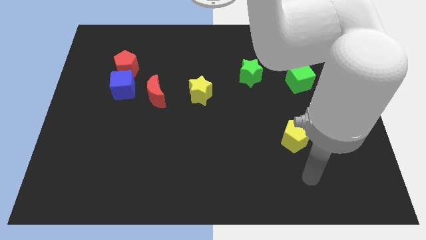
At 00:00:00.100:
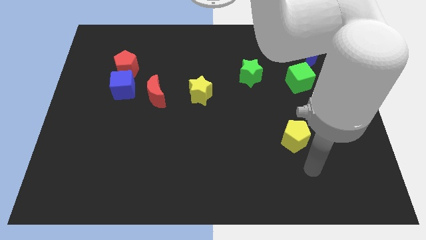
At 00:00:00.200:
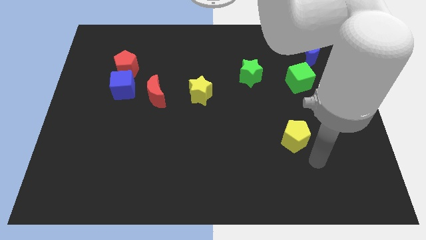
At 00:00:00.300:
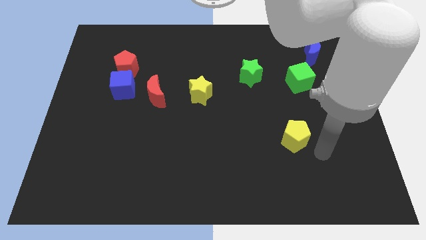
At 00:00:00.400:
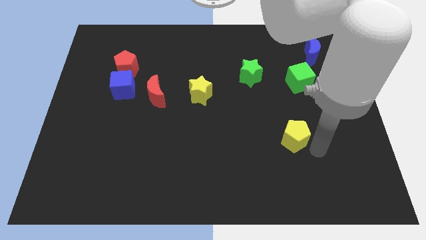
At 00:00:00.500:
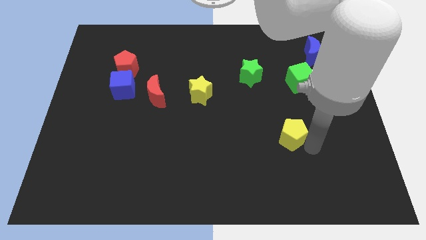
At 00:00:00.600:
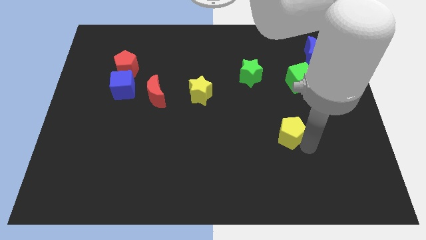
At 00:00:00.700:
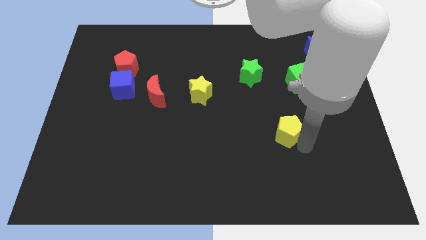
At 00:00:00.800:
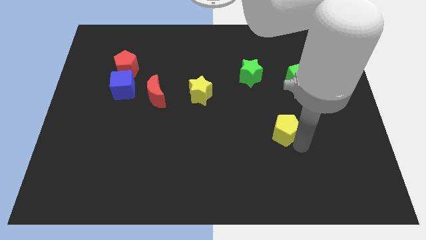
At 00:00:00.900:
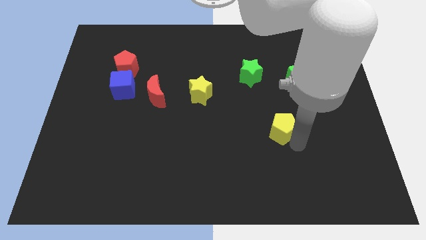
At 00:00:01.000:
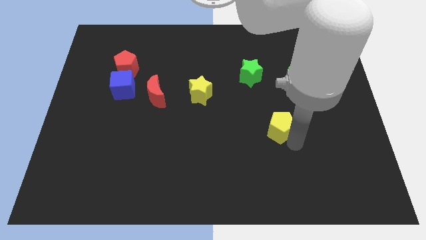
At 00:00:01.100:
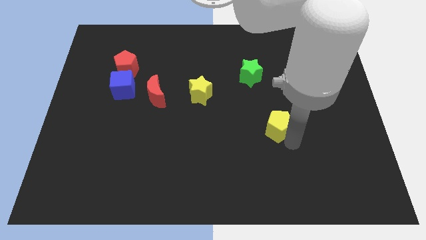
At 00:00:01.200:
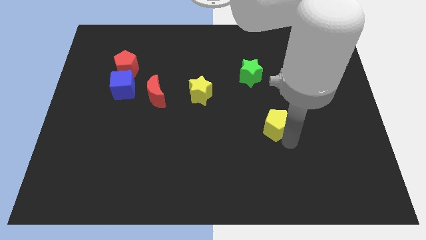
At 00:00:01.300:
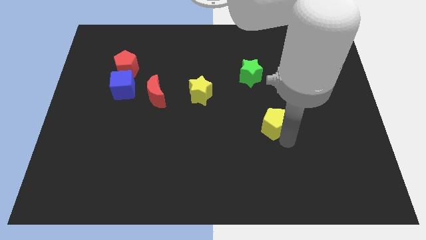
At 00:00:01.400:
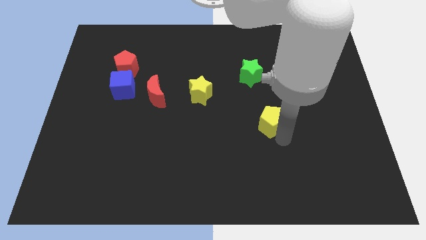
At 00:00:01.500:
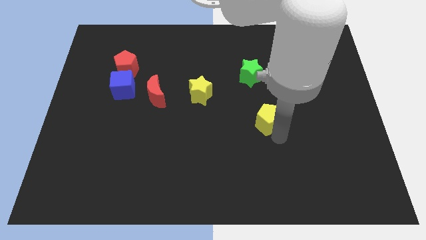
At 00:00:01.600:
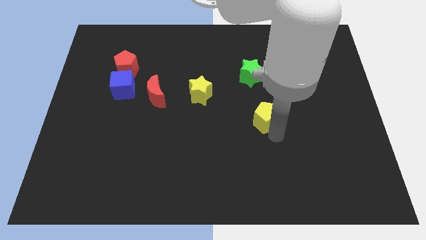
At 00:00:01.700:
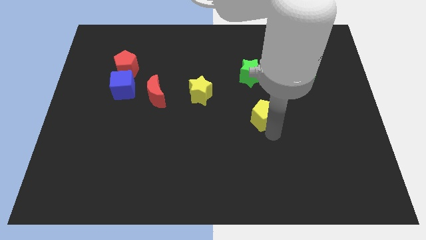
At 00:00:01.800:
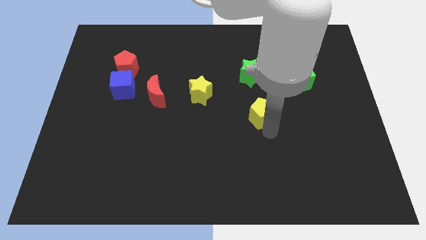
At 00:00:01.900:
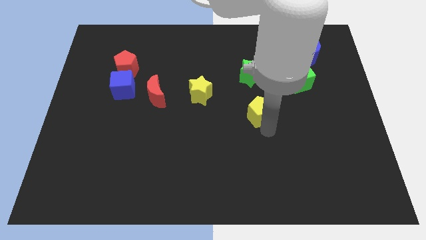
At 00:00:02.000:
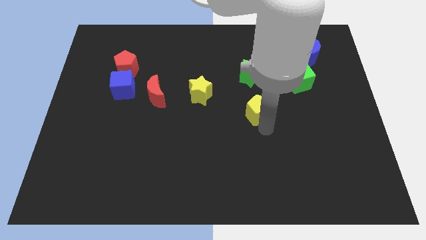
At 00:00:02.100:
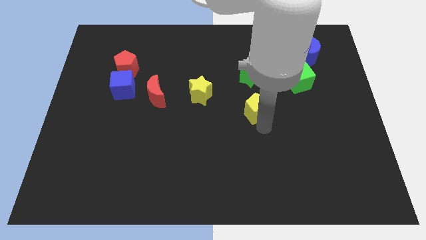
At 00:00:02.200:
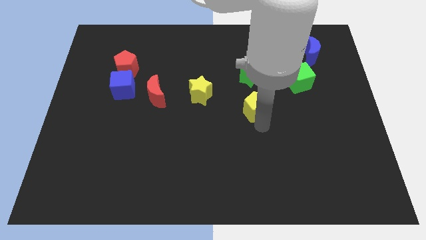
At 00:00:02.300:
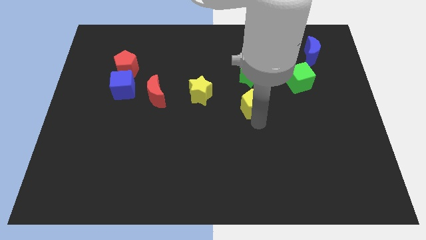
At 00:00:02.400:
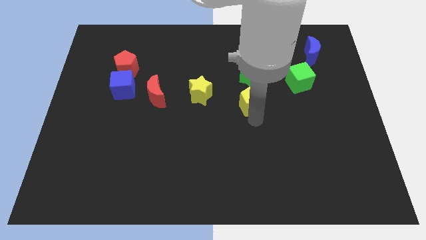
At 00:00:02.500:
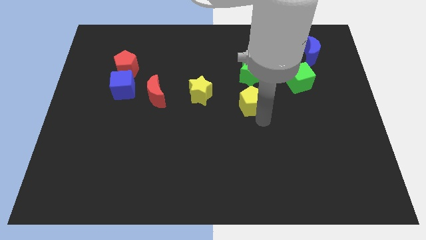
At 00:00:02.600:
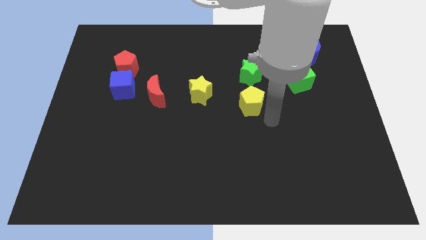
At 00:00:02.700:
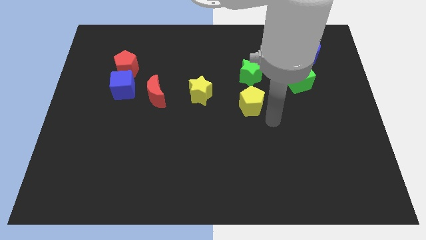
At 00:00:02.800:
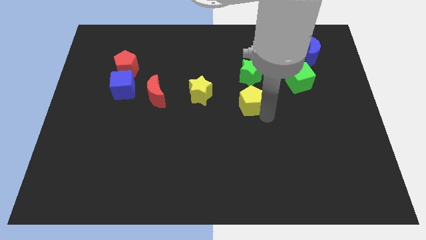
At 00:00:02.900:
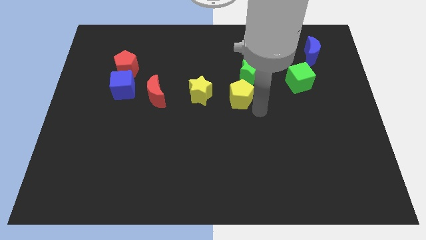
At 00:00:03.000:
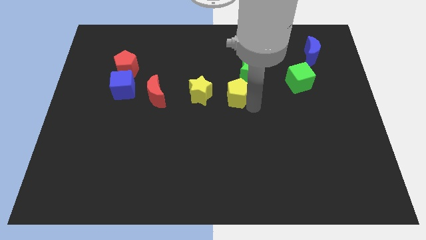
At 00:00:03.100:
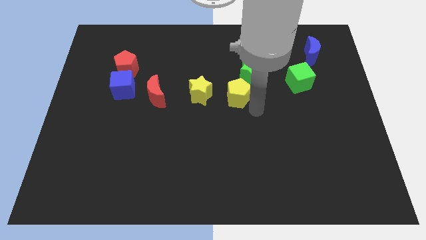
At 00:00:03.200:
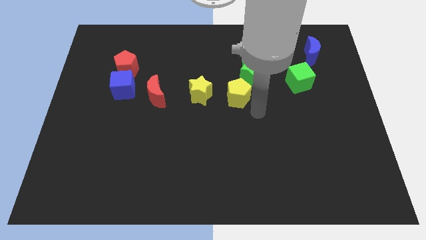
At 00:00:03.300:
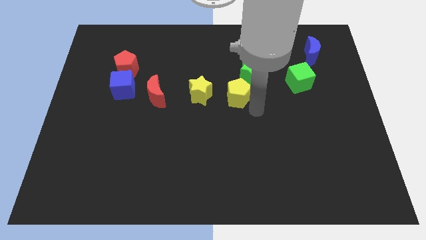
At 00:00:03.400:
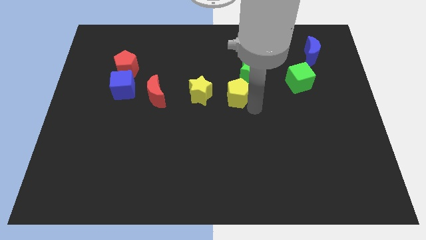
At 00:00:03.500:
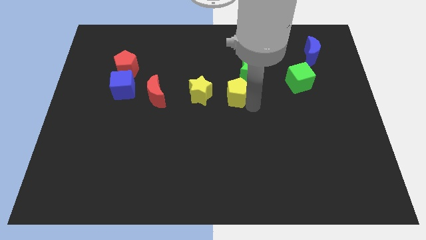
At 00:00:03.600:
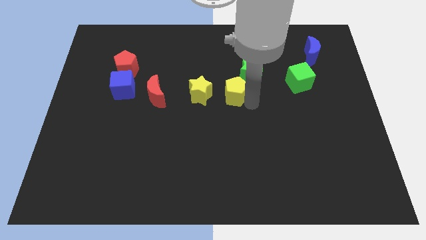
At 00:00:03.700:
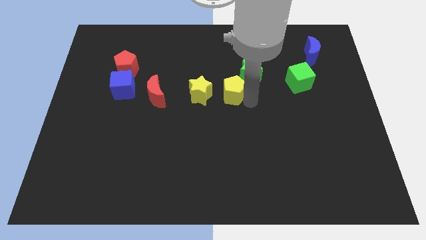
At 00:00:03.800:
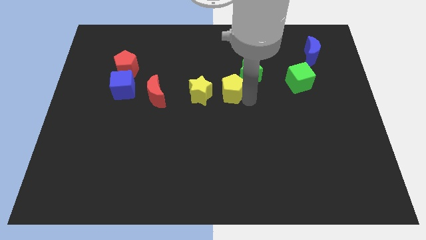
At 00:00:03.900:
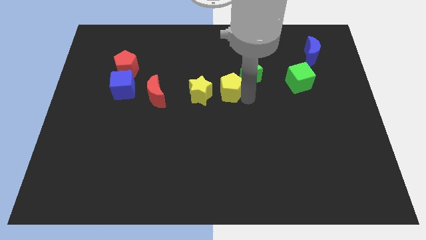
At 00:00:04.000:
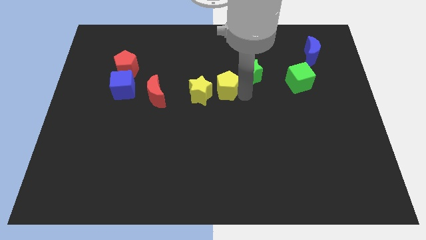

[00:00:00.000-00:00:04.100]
slide the yellow pentagon upwards and to the left diagonally

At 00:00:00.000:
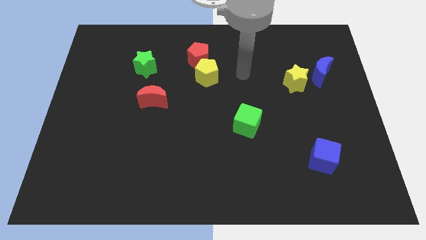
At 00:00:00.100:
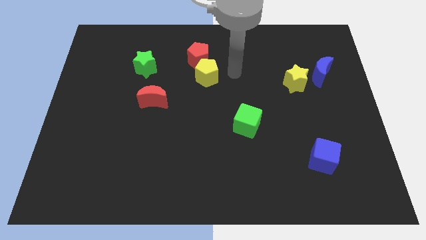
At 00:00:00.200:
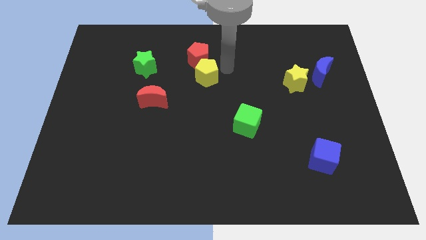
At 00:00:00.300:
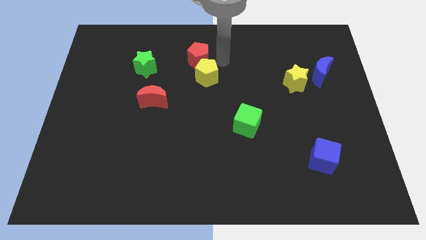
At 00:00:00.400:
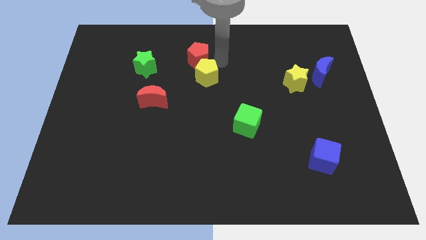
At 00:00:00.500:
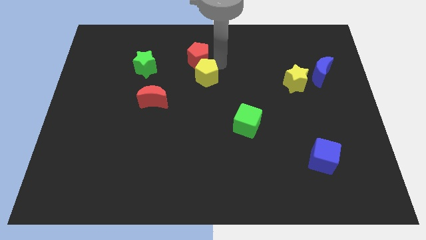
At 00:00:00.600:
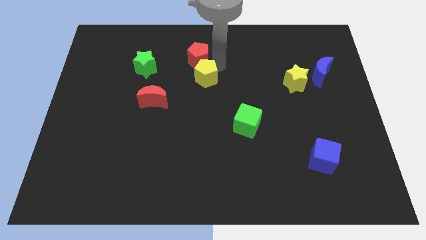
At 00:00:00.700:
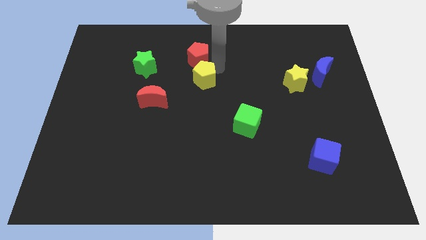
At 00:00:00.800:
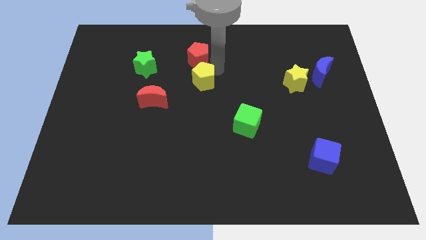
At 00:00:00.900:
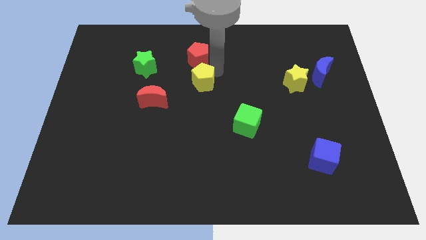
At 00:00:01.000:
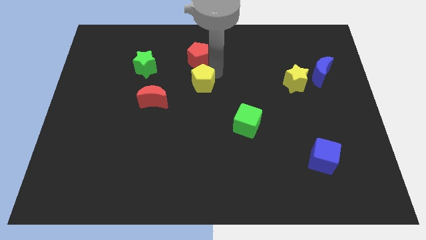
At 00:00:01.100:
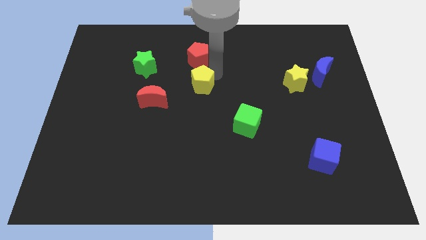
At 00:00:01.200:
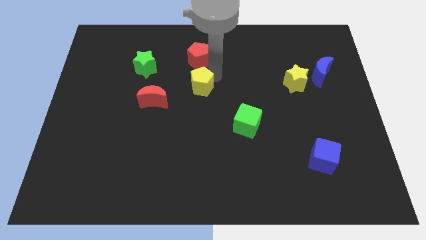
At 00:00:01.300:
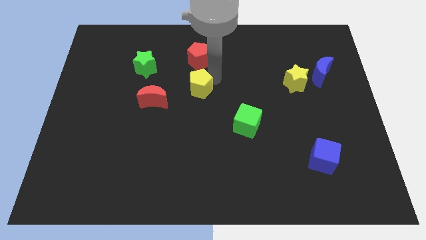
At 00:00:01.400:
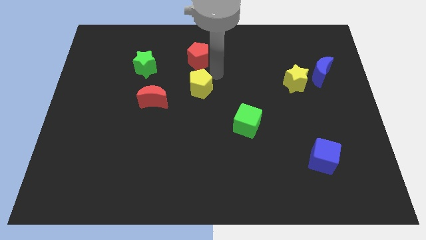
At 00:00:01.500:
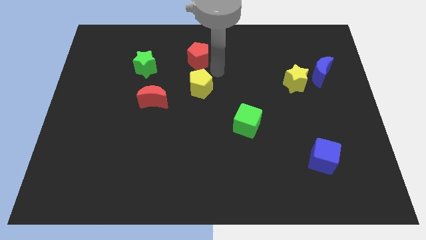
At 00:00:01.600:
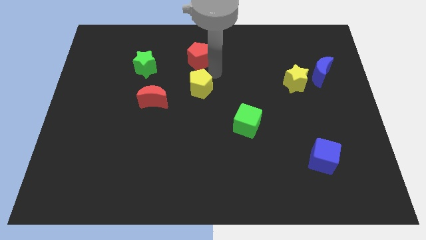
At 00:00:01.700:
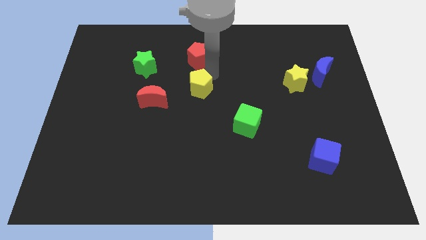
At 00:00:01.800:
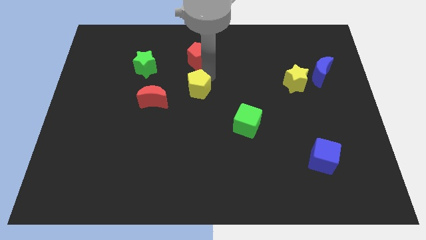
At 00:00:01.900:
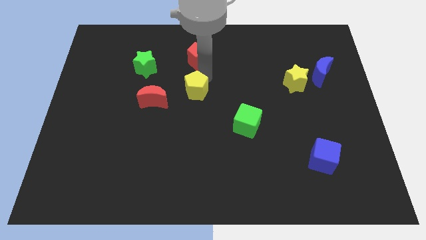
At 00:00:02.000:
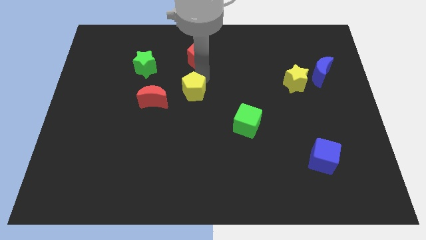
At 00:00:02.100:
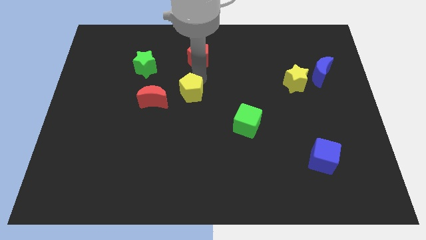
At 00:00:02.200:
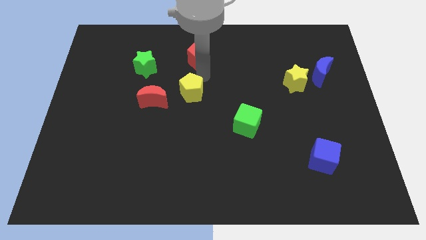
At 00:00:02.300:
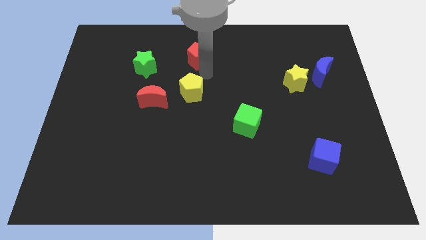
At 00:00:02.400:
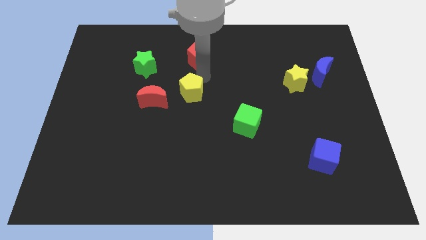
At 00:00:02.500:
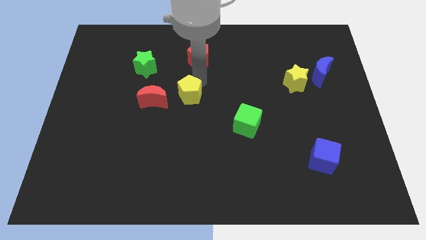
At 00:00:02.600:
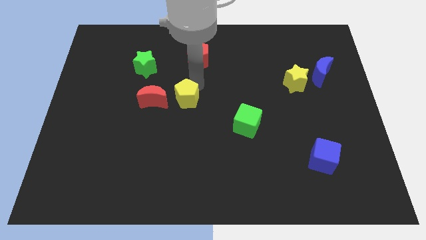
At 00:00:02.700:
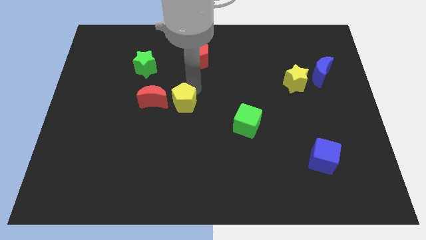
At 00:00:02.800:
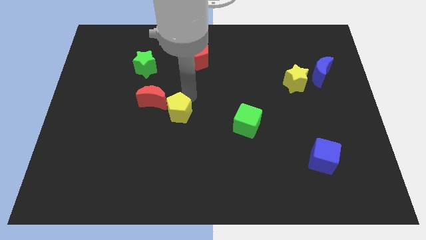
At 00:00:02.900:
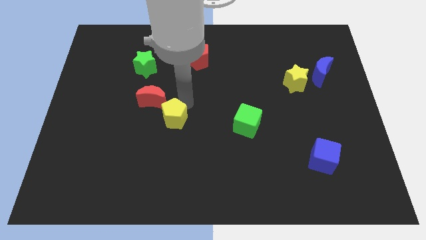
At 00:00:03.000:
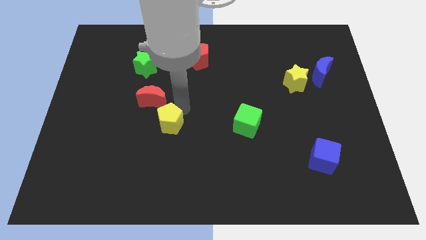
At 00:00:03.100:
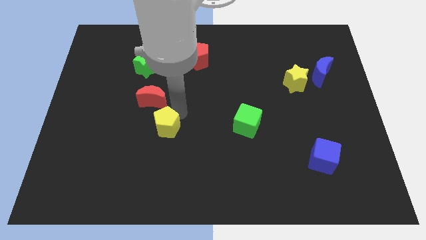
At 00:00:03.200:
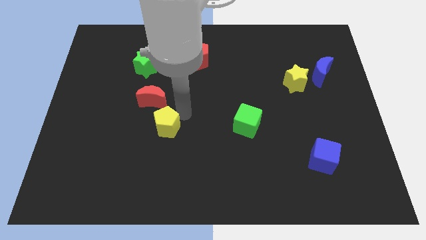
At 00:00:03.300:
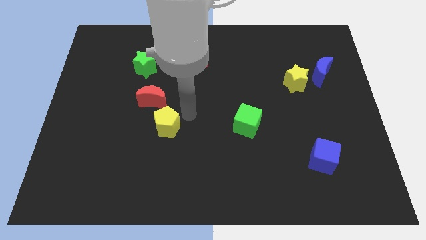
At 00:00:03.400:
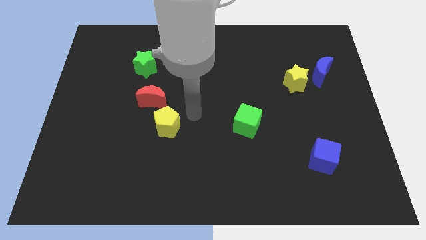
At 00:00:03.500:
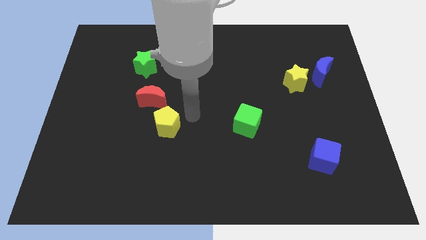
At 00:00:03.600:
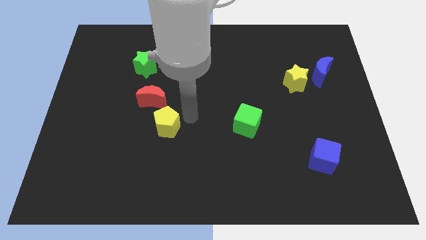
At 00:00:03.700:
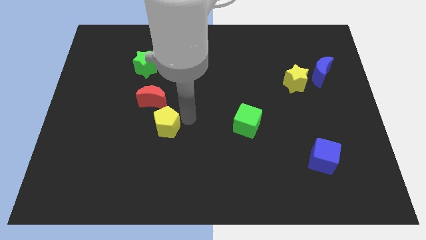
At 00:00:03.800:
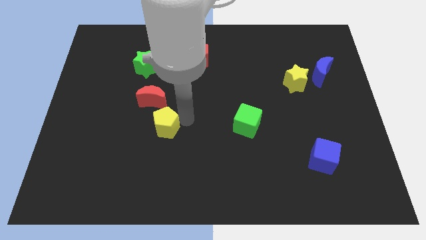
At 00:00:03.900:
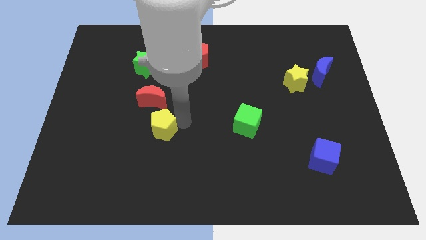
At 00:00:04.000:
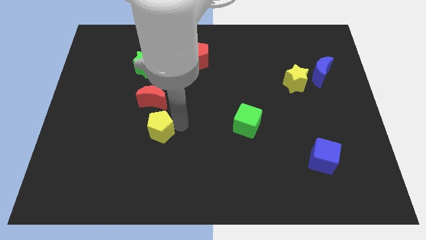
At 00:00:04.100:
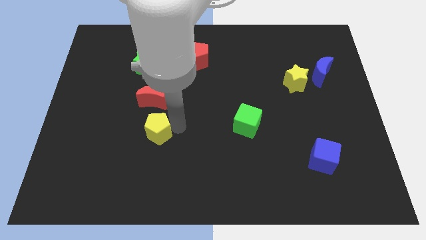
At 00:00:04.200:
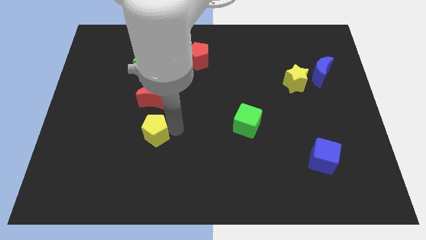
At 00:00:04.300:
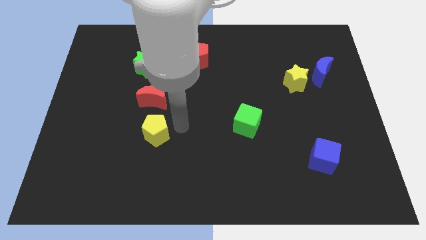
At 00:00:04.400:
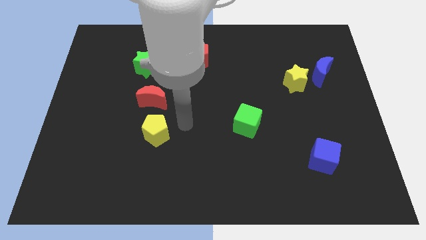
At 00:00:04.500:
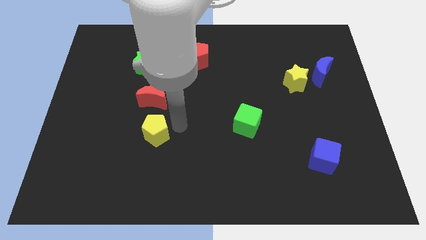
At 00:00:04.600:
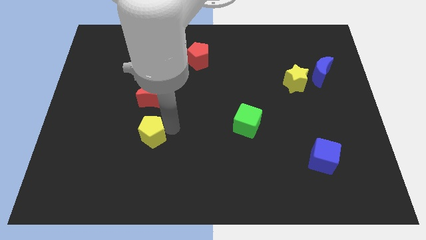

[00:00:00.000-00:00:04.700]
move the yellow pentagon downwards and then to the left
